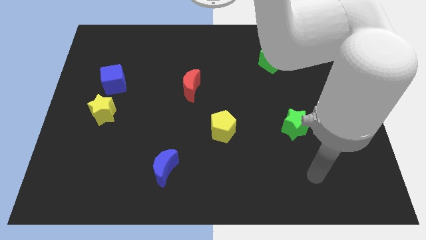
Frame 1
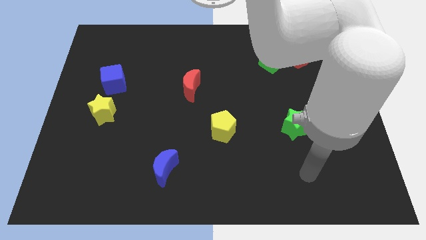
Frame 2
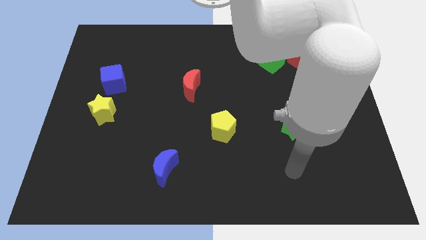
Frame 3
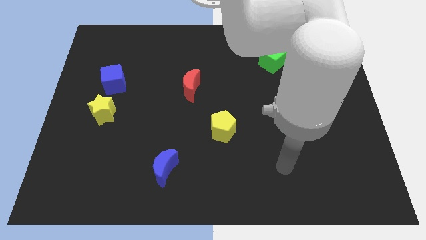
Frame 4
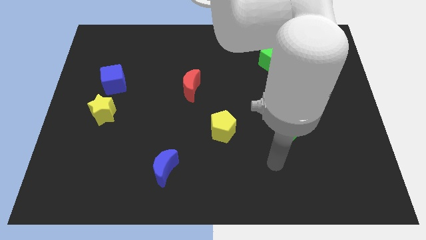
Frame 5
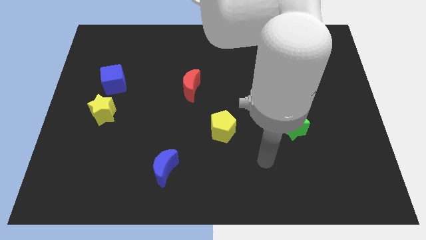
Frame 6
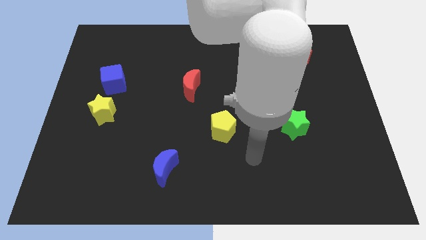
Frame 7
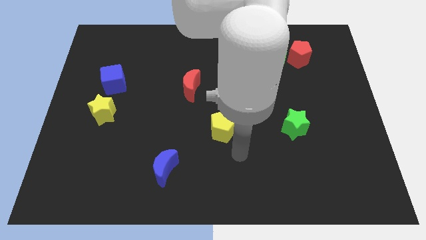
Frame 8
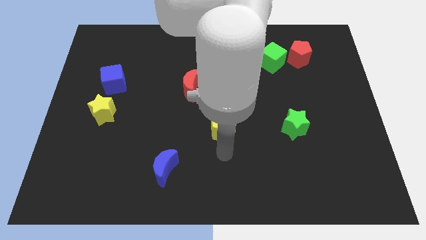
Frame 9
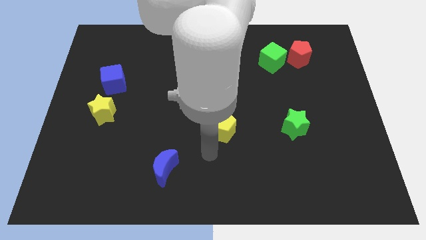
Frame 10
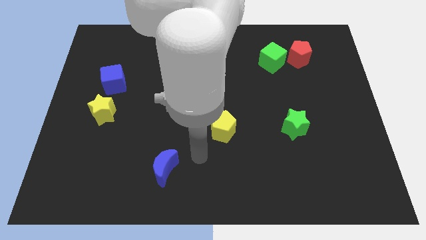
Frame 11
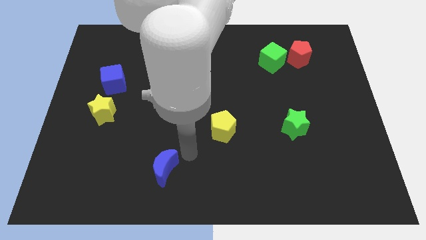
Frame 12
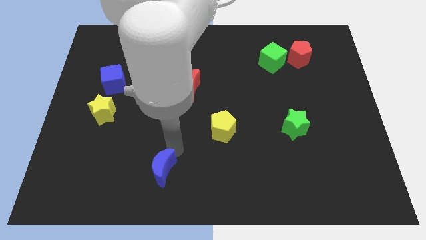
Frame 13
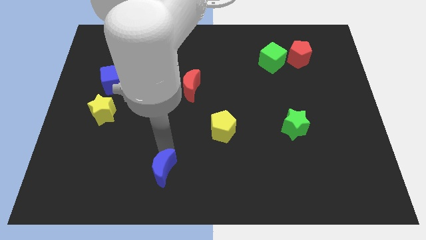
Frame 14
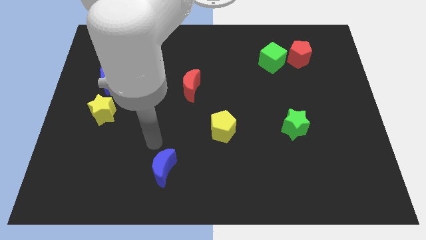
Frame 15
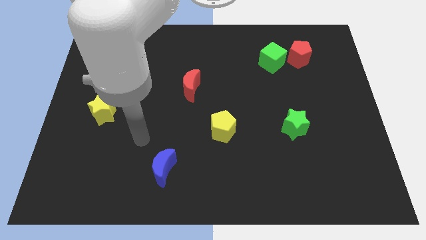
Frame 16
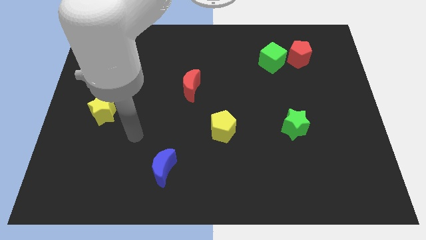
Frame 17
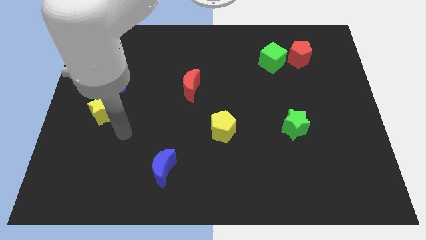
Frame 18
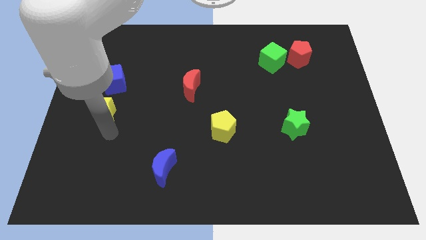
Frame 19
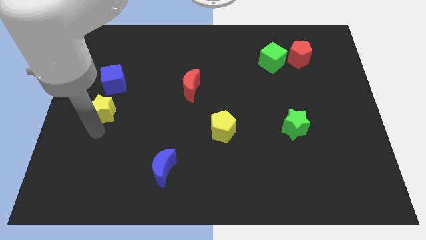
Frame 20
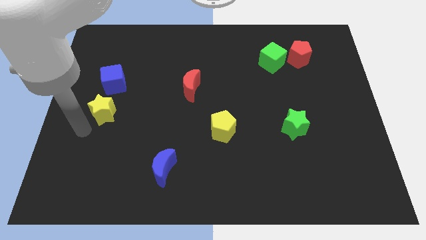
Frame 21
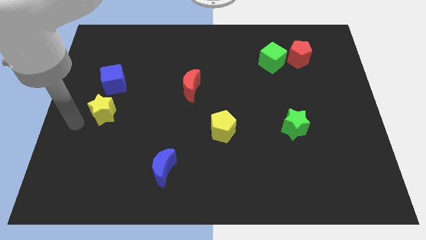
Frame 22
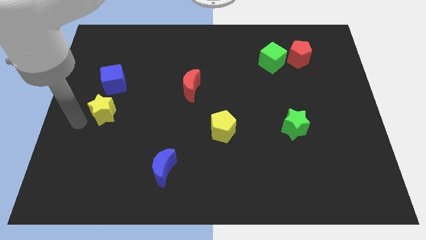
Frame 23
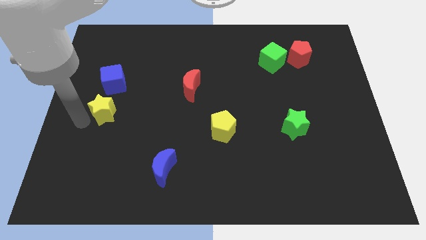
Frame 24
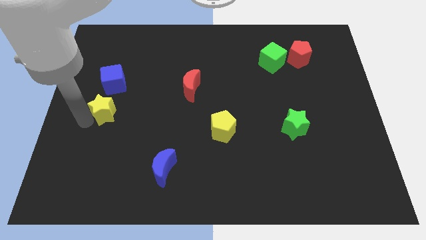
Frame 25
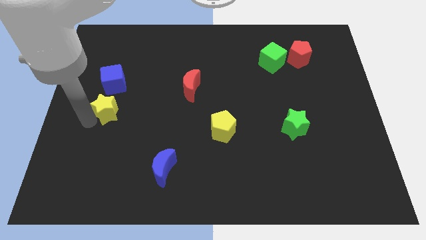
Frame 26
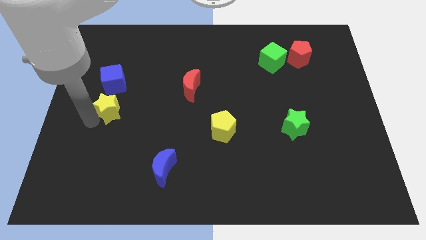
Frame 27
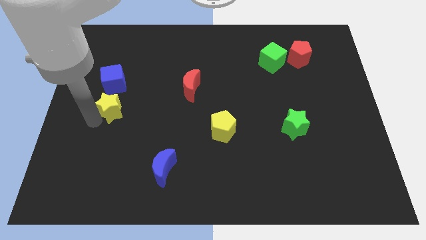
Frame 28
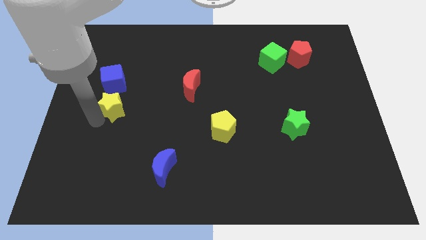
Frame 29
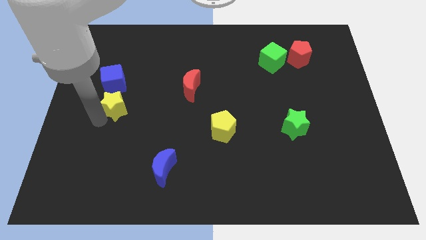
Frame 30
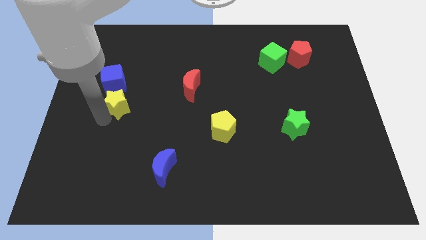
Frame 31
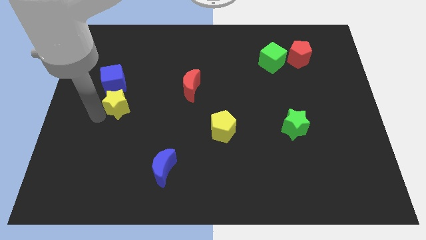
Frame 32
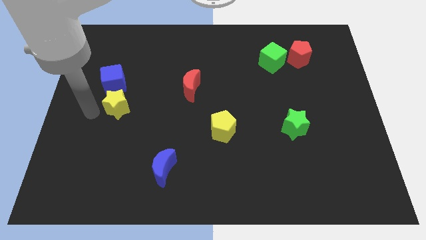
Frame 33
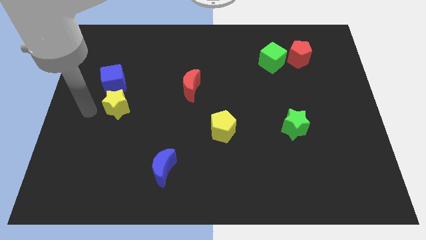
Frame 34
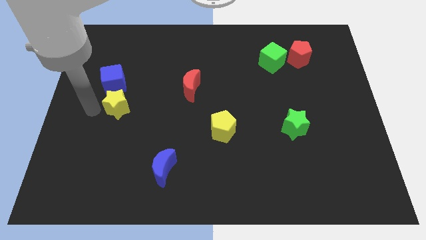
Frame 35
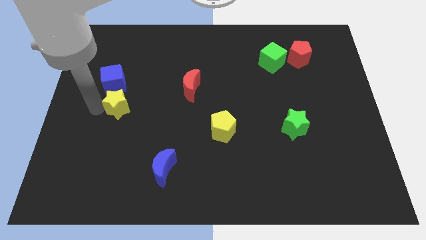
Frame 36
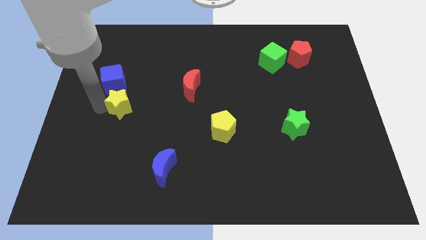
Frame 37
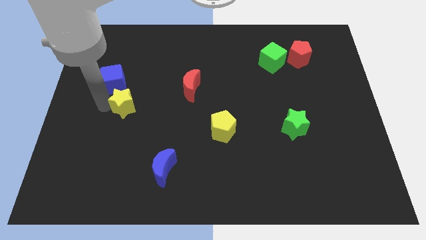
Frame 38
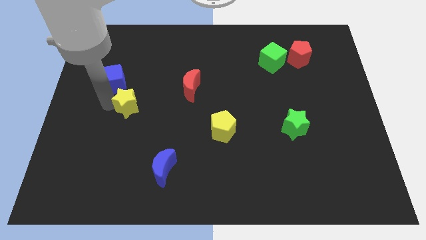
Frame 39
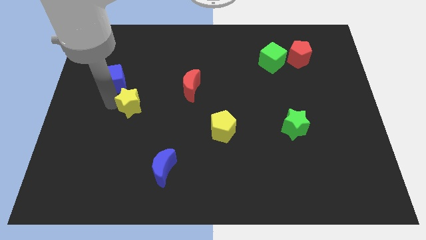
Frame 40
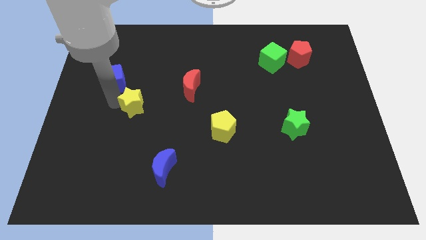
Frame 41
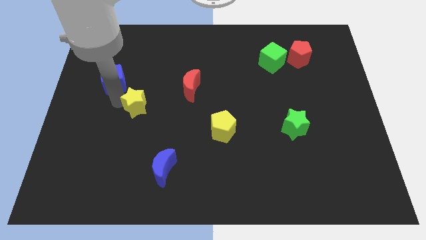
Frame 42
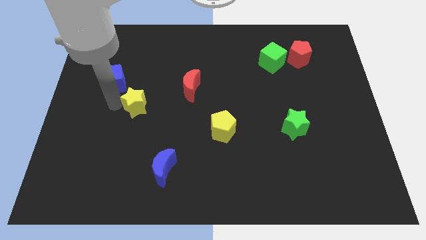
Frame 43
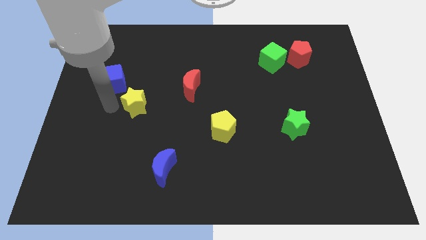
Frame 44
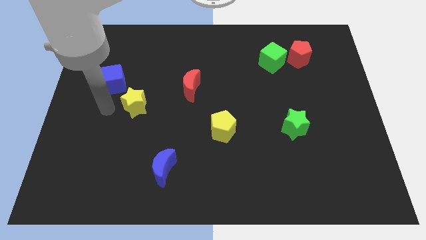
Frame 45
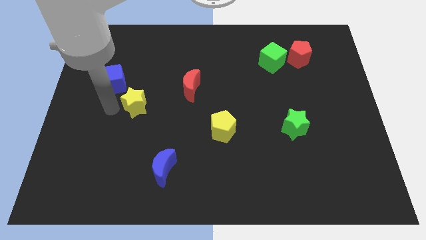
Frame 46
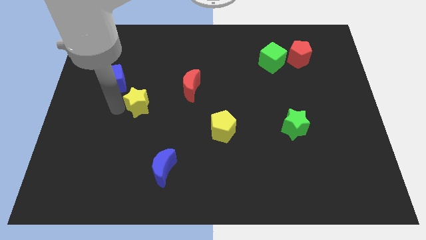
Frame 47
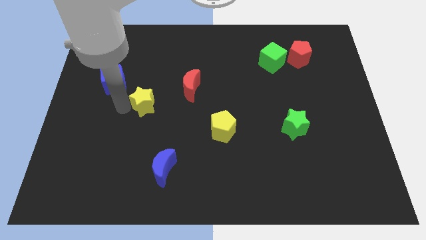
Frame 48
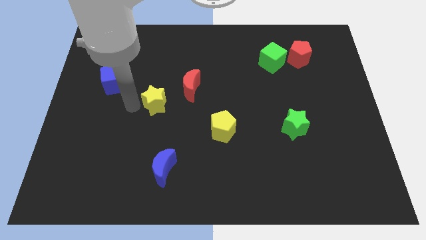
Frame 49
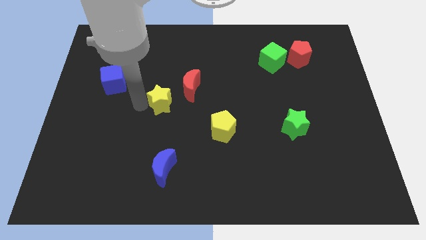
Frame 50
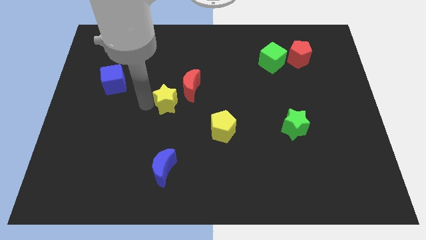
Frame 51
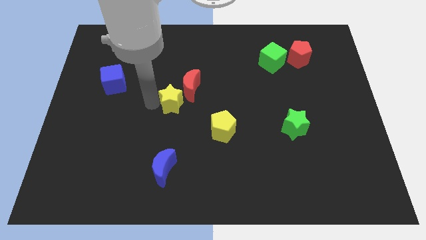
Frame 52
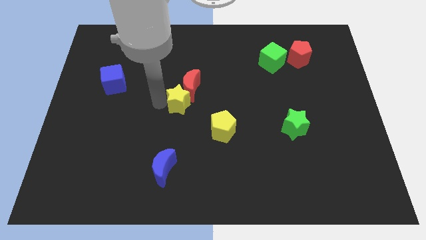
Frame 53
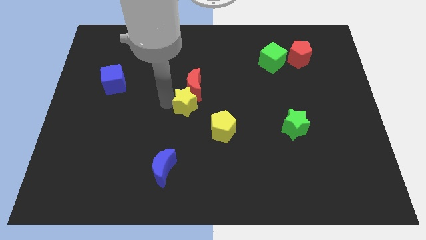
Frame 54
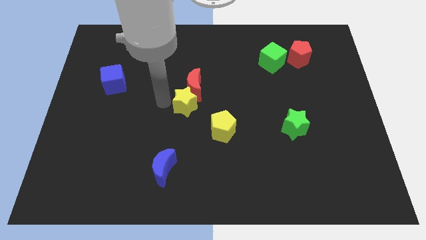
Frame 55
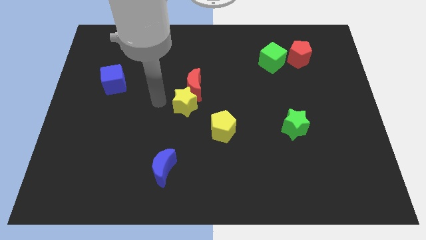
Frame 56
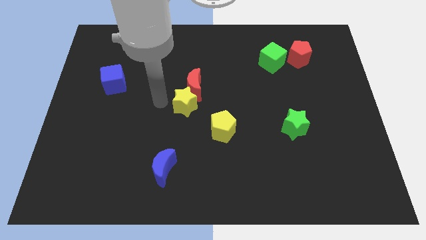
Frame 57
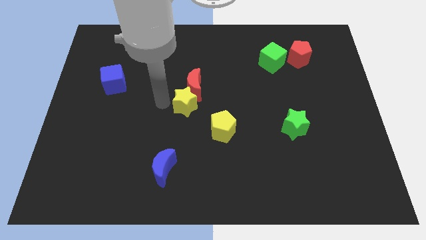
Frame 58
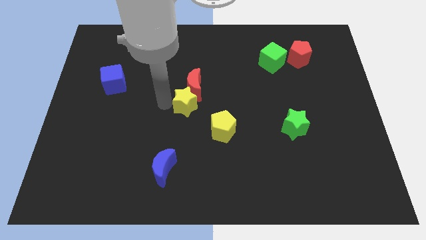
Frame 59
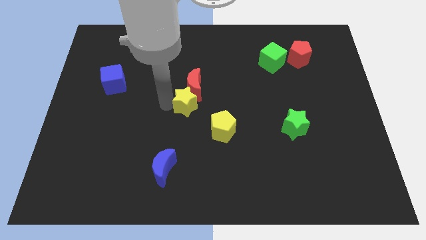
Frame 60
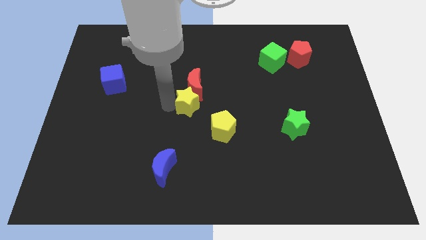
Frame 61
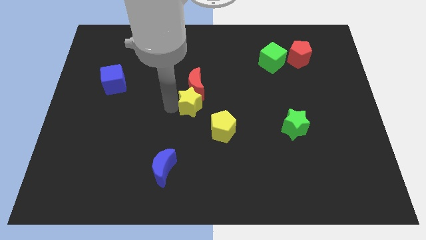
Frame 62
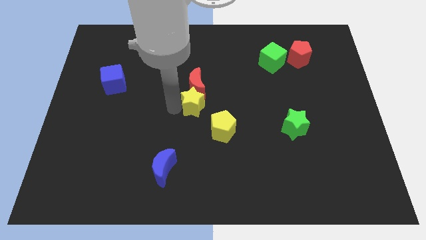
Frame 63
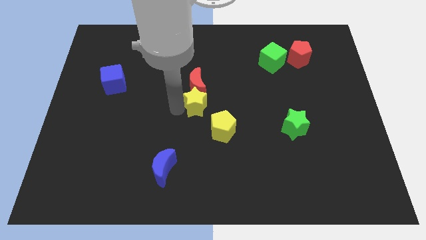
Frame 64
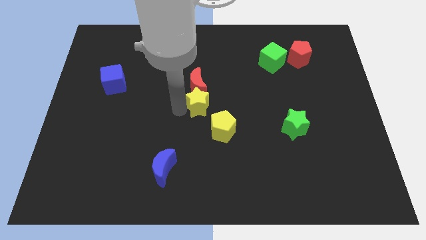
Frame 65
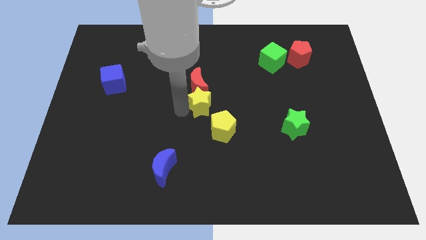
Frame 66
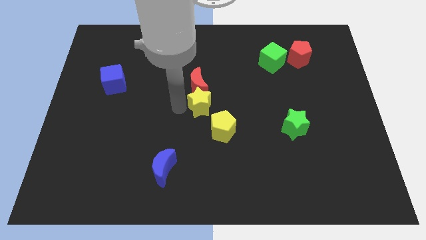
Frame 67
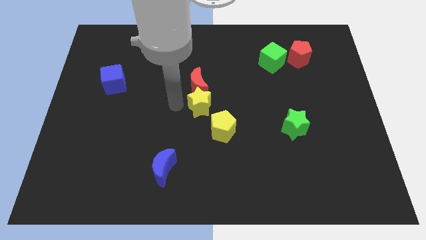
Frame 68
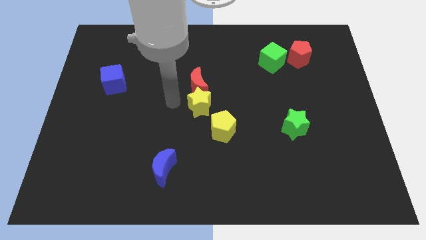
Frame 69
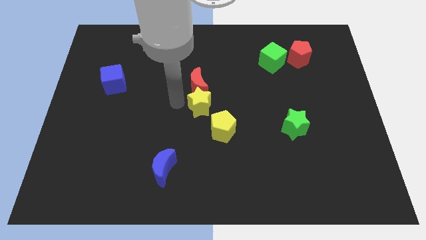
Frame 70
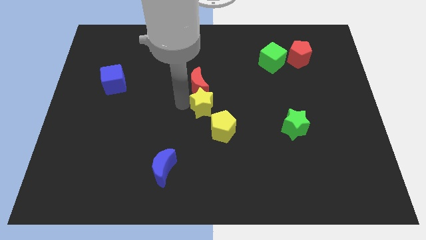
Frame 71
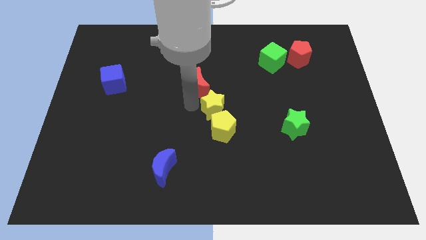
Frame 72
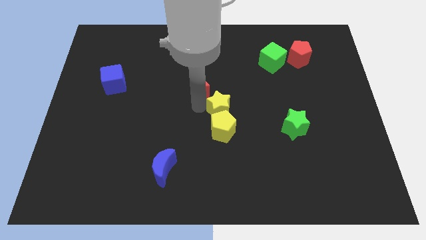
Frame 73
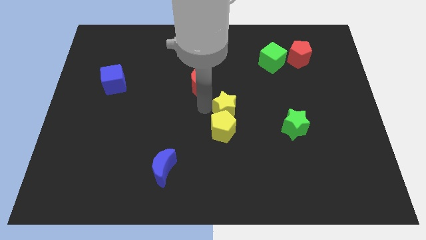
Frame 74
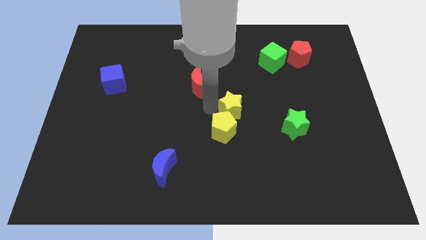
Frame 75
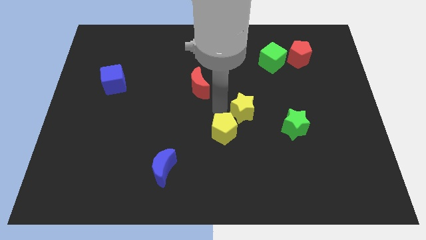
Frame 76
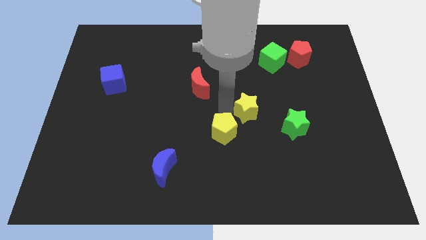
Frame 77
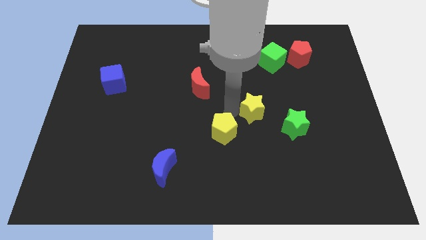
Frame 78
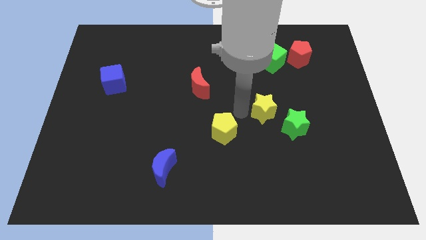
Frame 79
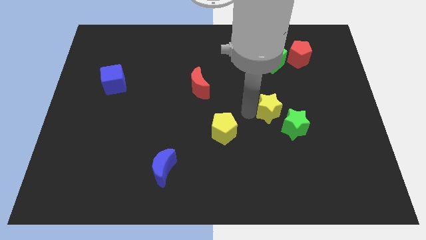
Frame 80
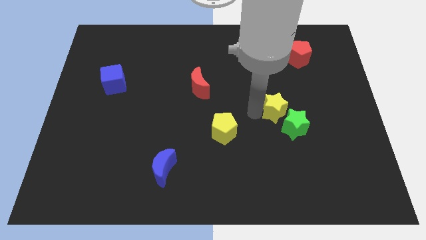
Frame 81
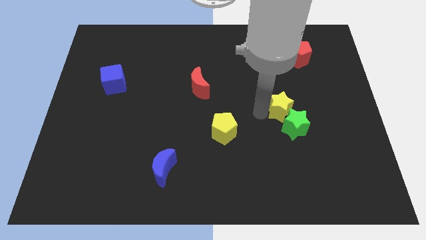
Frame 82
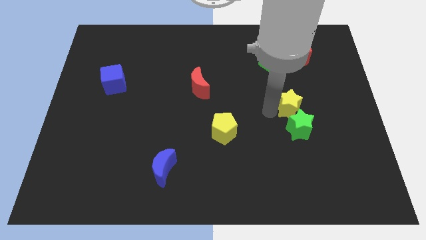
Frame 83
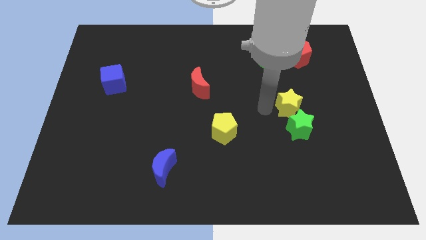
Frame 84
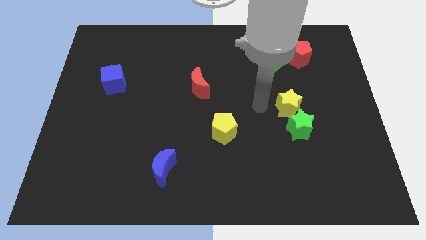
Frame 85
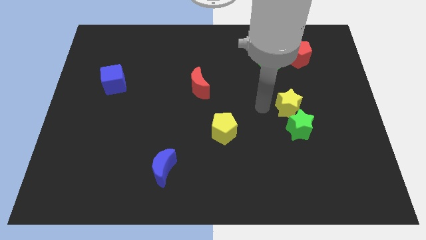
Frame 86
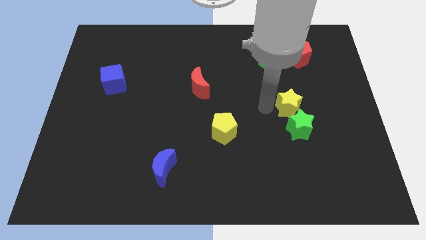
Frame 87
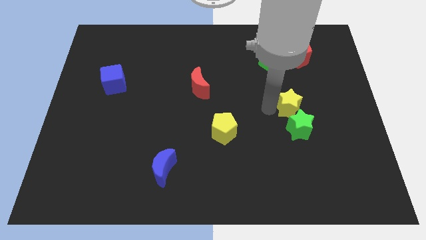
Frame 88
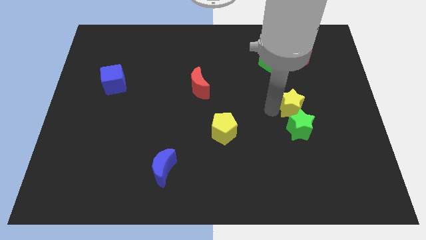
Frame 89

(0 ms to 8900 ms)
push the yellow star to the top right side of the green star
